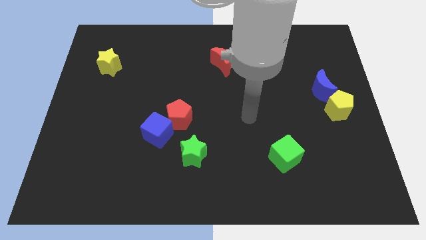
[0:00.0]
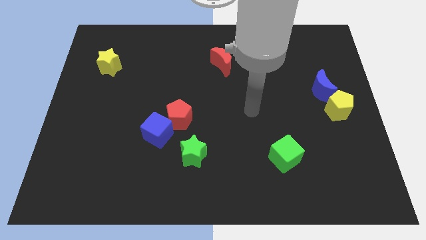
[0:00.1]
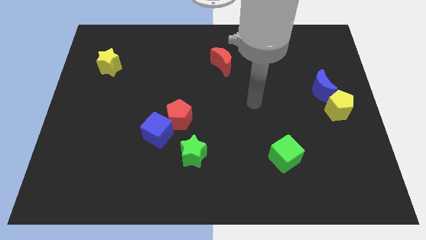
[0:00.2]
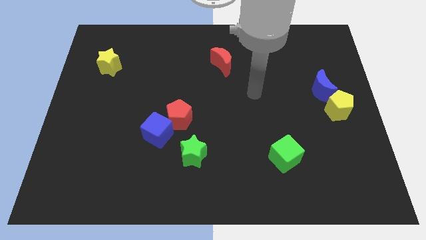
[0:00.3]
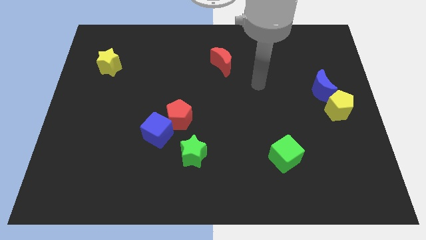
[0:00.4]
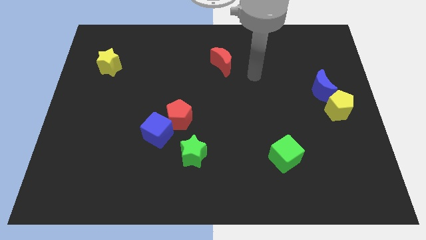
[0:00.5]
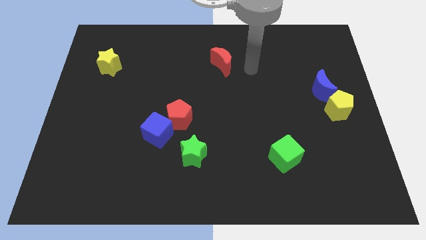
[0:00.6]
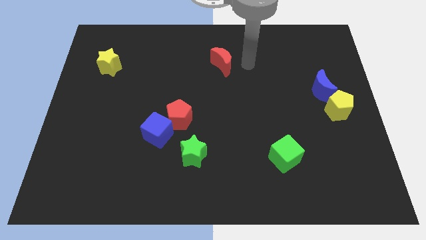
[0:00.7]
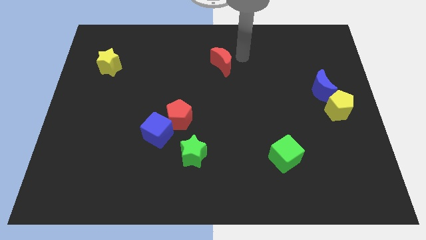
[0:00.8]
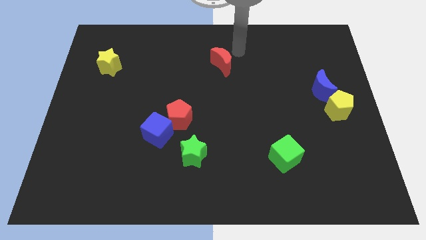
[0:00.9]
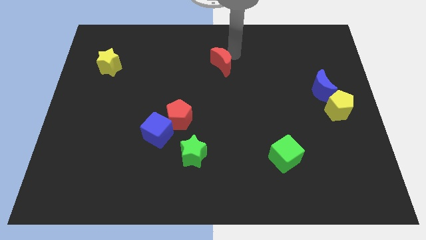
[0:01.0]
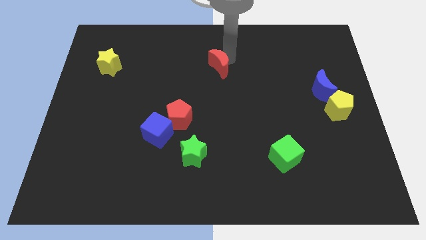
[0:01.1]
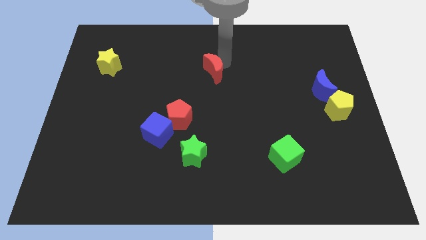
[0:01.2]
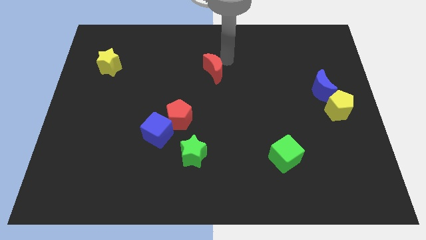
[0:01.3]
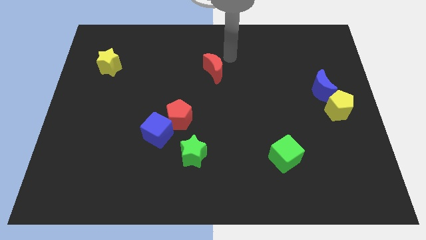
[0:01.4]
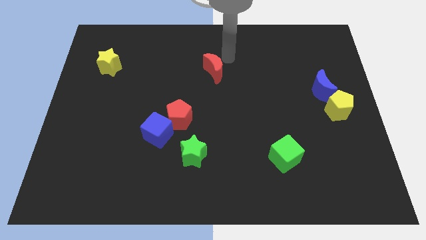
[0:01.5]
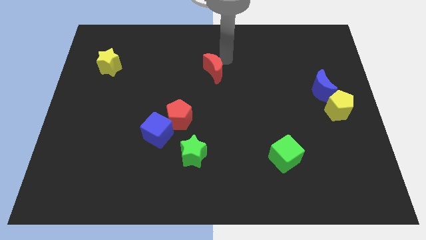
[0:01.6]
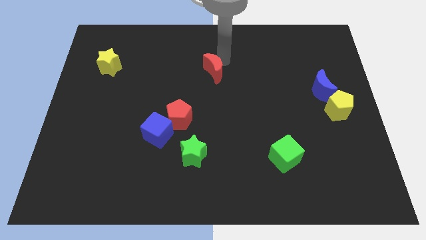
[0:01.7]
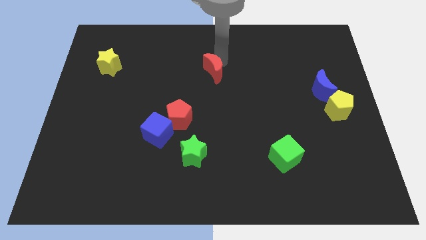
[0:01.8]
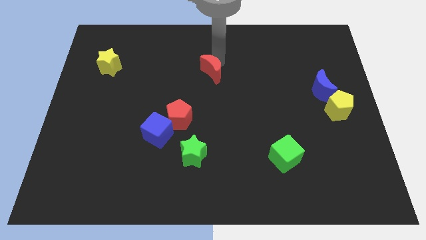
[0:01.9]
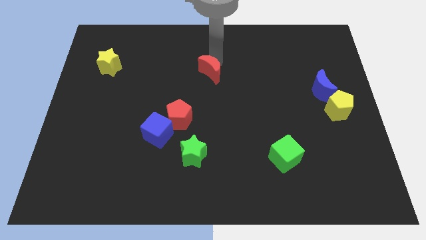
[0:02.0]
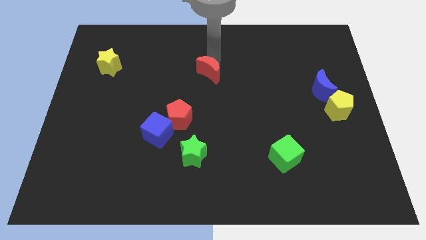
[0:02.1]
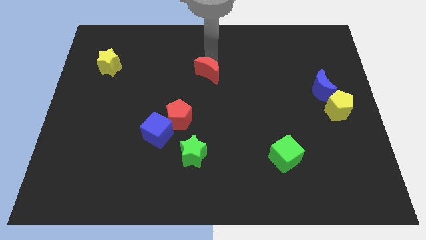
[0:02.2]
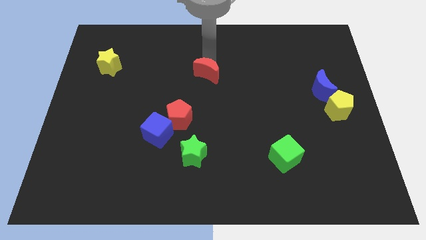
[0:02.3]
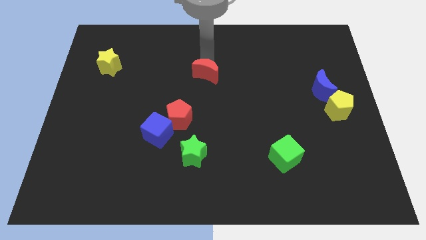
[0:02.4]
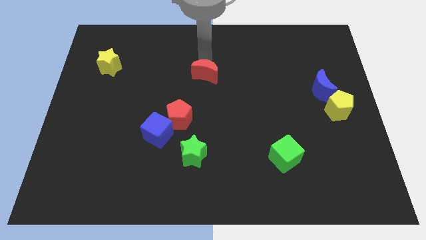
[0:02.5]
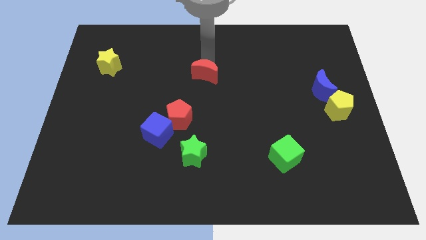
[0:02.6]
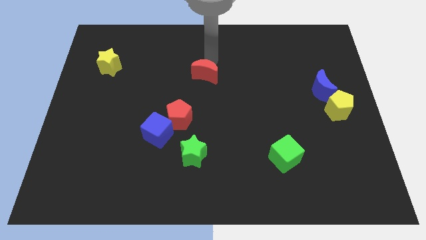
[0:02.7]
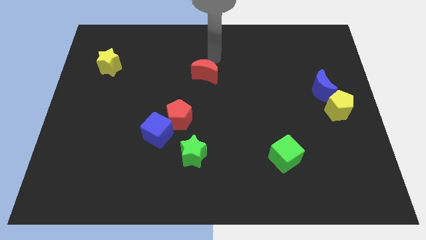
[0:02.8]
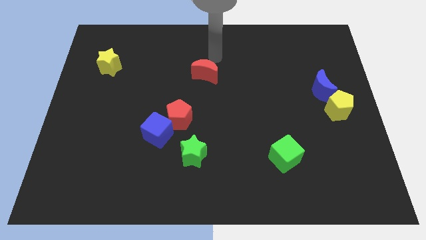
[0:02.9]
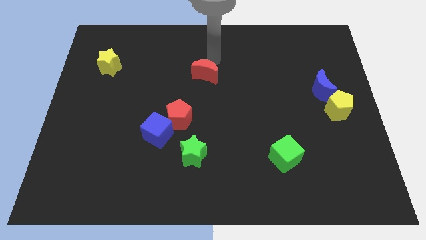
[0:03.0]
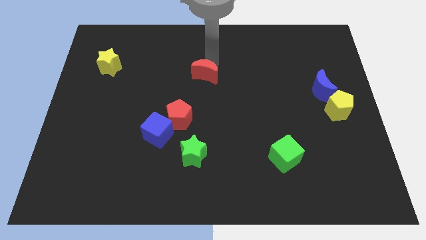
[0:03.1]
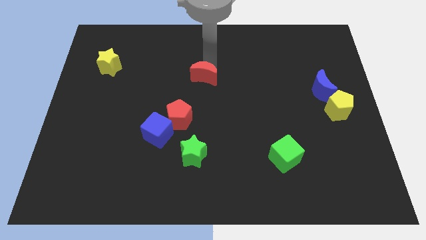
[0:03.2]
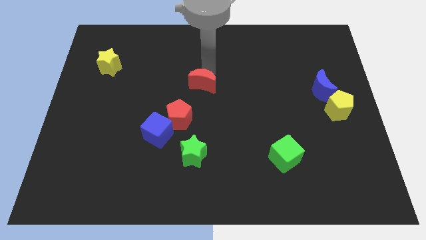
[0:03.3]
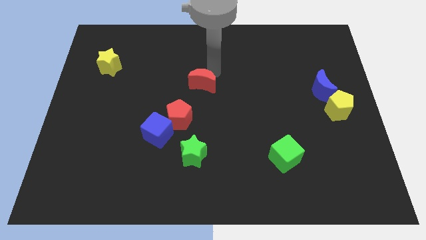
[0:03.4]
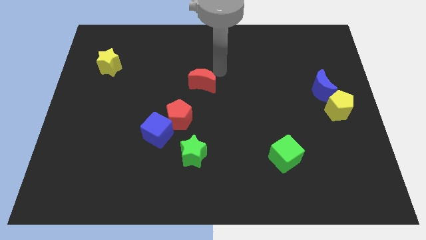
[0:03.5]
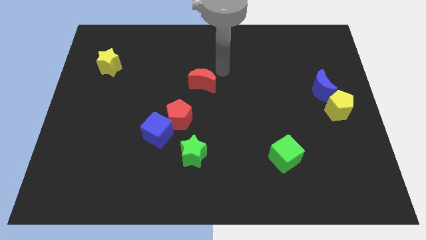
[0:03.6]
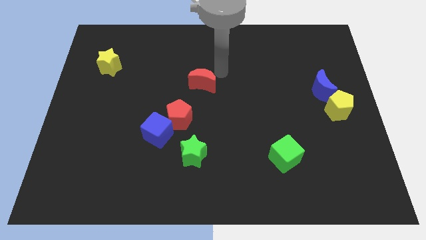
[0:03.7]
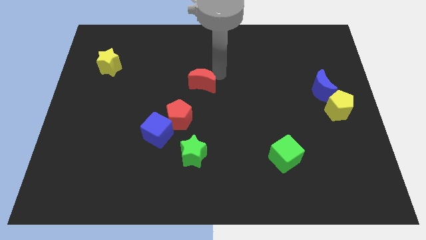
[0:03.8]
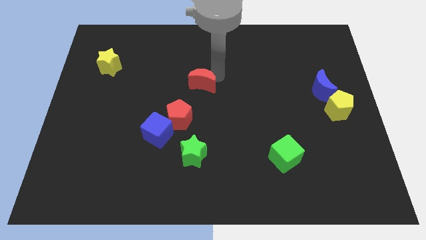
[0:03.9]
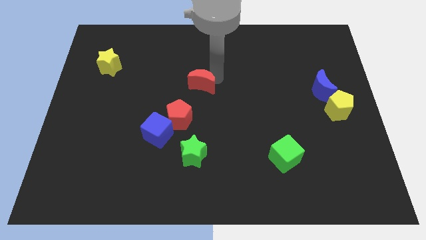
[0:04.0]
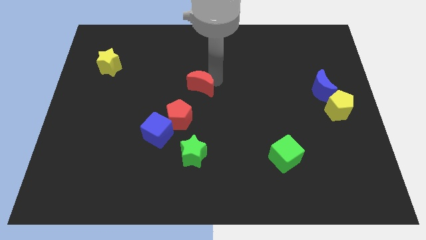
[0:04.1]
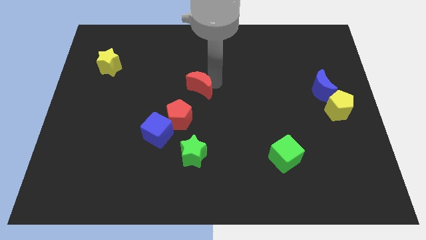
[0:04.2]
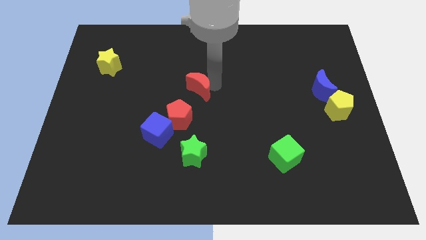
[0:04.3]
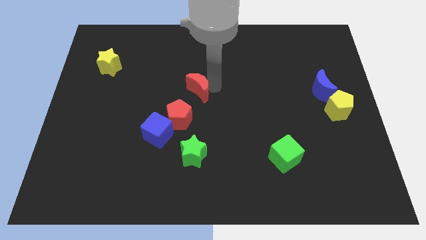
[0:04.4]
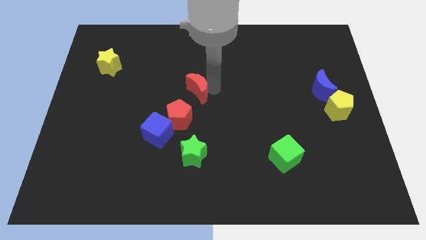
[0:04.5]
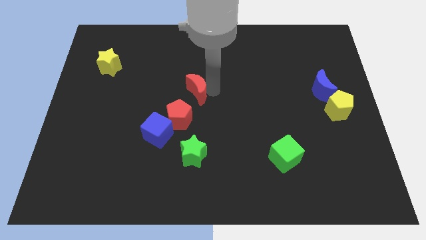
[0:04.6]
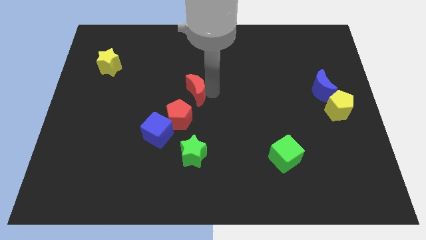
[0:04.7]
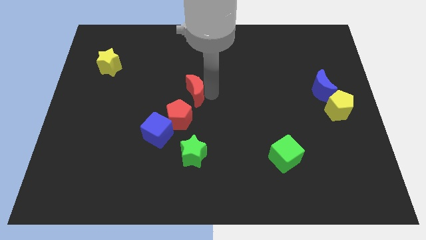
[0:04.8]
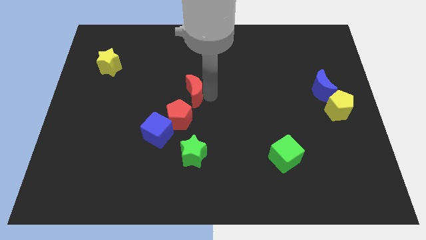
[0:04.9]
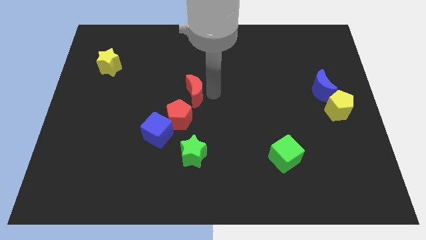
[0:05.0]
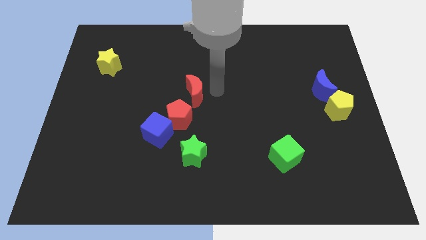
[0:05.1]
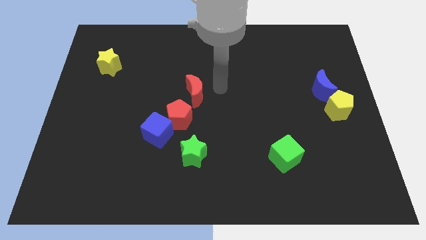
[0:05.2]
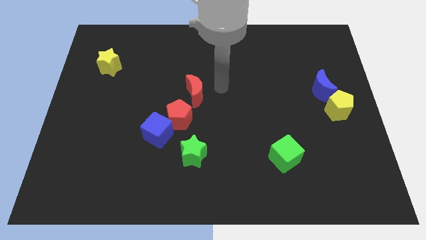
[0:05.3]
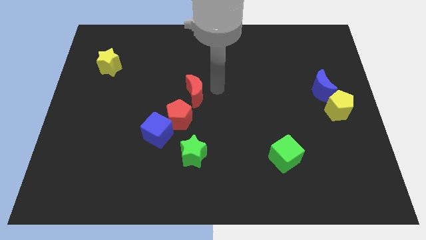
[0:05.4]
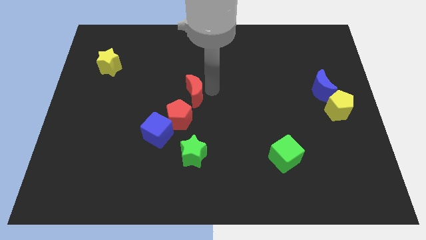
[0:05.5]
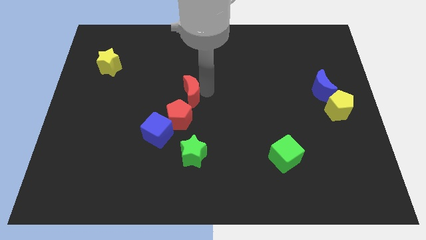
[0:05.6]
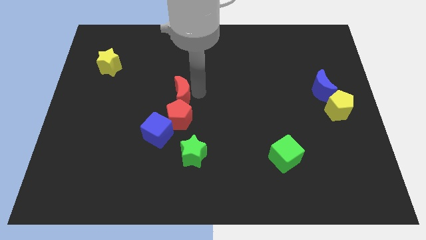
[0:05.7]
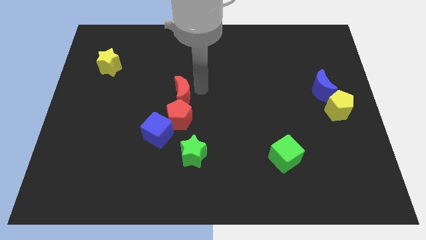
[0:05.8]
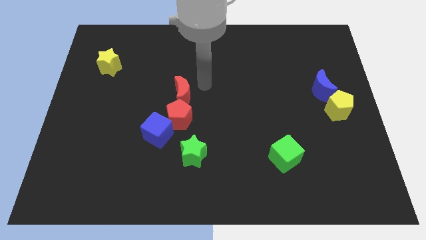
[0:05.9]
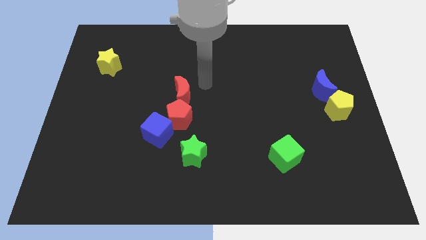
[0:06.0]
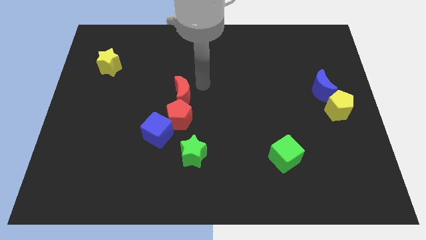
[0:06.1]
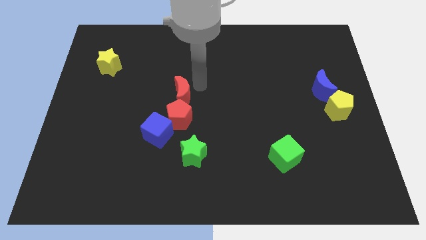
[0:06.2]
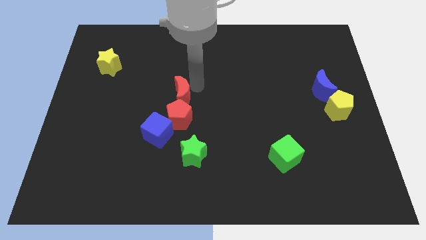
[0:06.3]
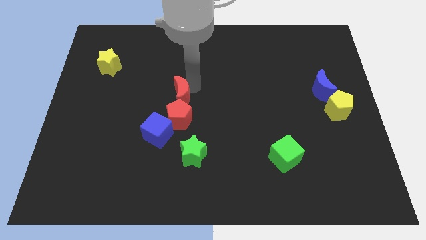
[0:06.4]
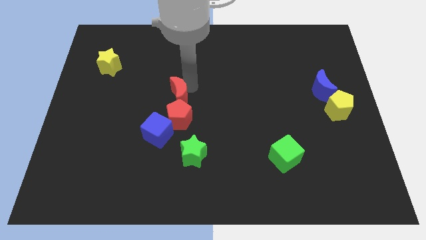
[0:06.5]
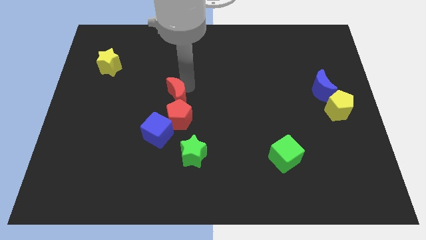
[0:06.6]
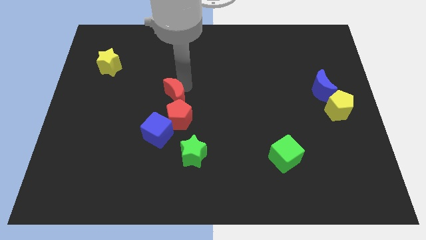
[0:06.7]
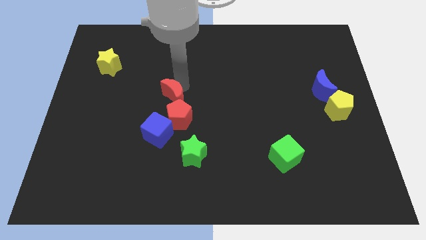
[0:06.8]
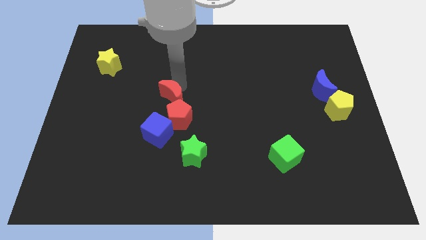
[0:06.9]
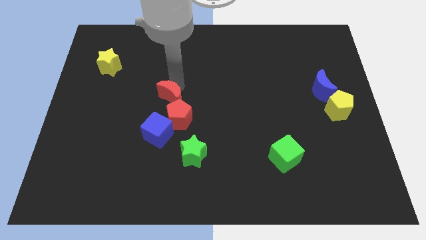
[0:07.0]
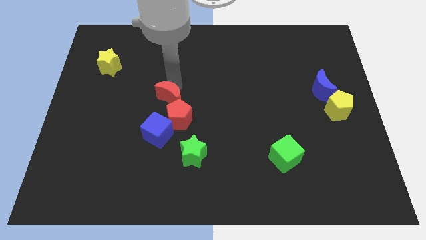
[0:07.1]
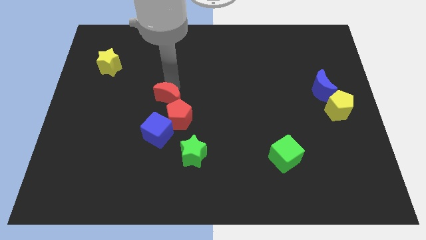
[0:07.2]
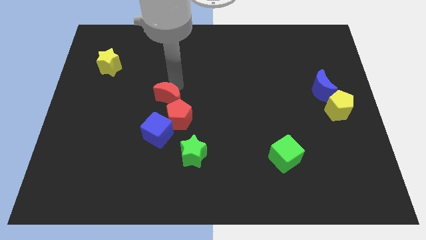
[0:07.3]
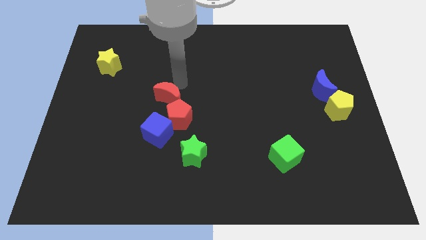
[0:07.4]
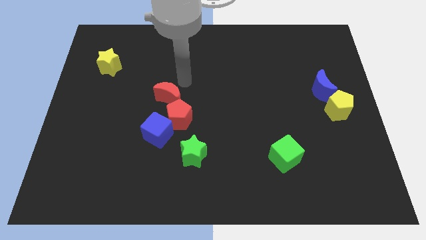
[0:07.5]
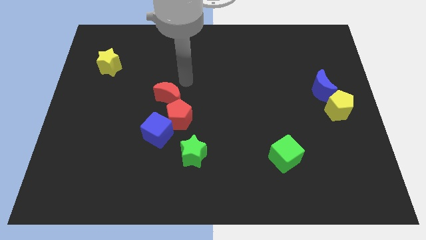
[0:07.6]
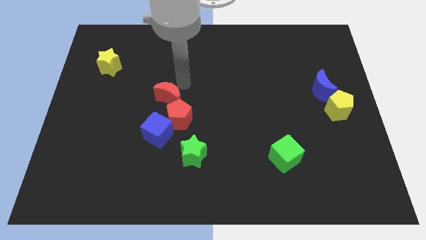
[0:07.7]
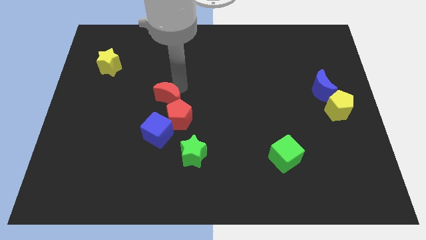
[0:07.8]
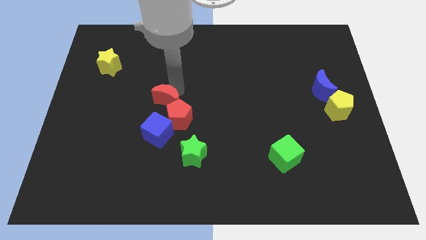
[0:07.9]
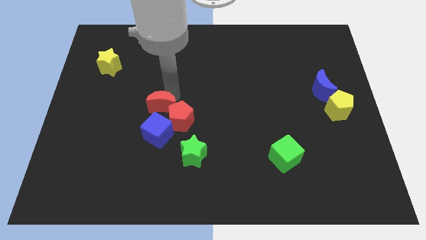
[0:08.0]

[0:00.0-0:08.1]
slide the red moon diagonally down and to the left
